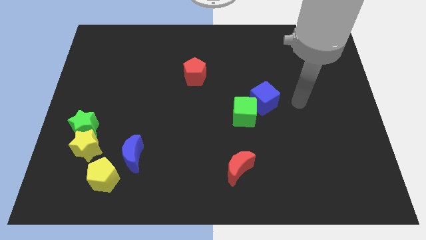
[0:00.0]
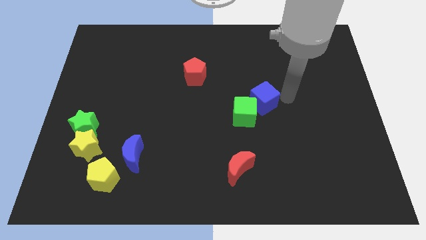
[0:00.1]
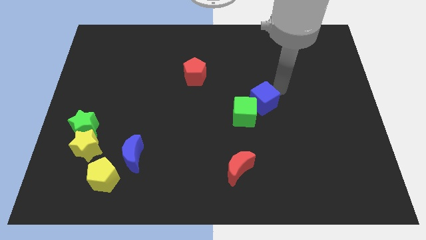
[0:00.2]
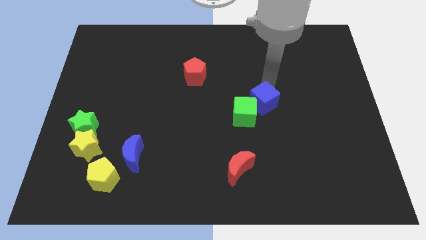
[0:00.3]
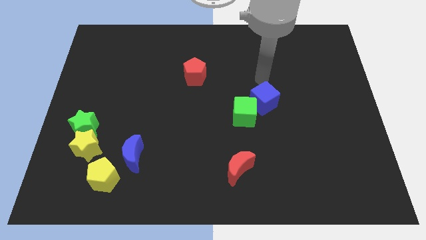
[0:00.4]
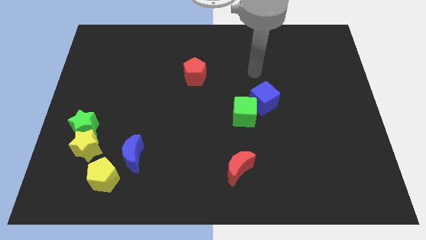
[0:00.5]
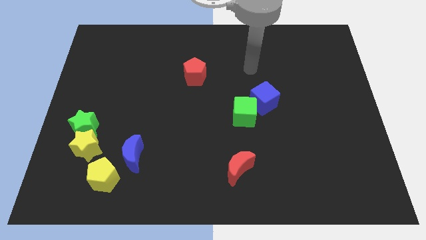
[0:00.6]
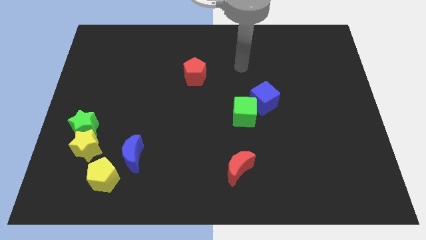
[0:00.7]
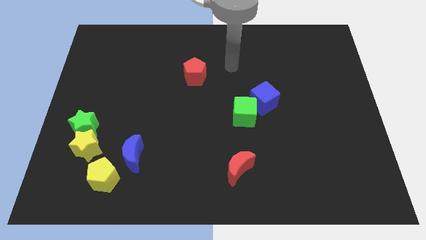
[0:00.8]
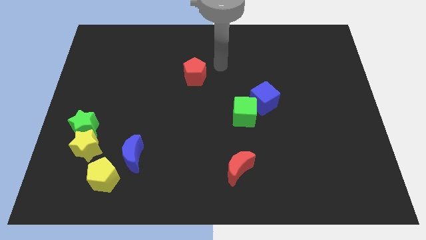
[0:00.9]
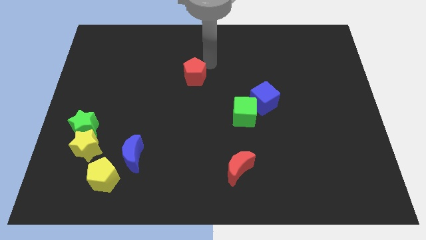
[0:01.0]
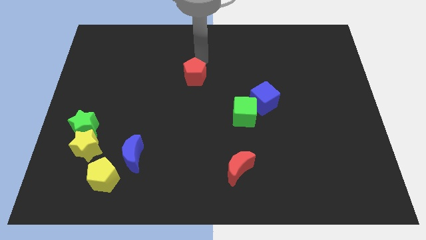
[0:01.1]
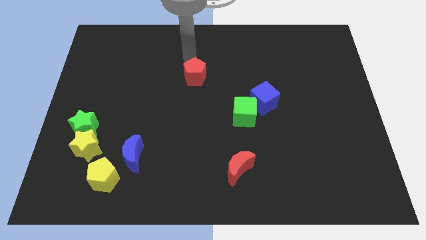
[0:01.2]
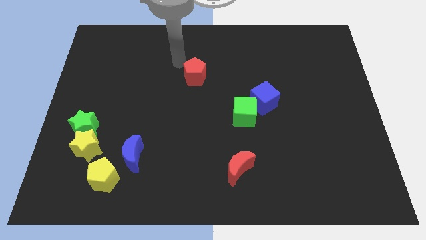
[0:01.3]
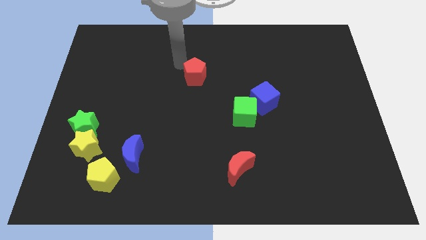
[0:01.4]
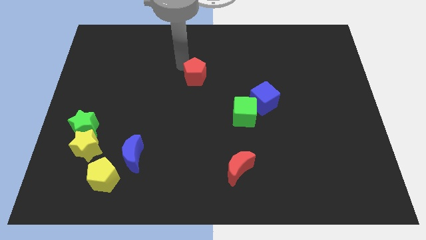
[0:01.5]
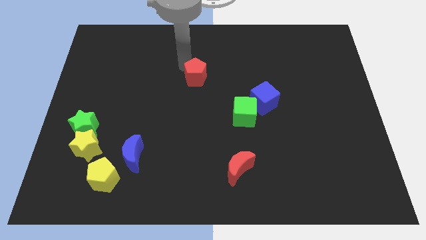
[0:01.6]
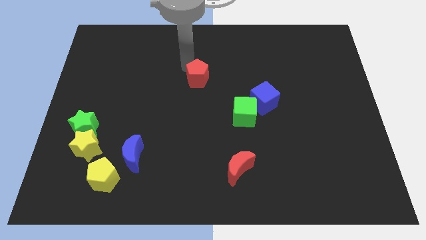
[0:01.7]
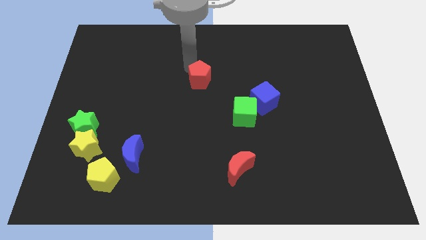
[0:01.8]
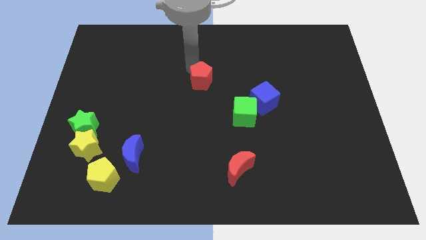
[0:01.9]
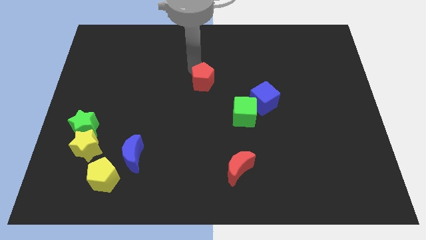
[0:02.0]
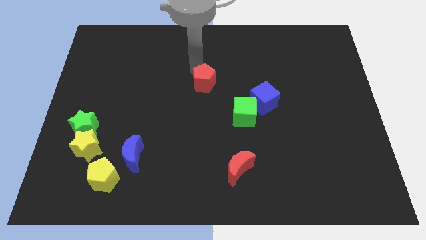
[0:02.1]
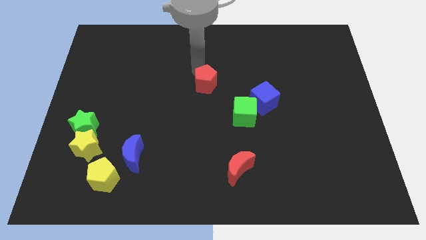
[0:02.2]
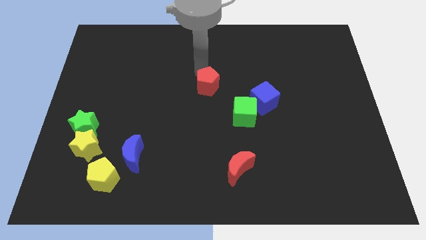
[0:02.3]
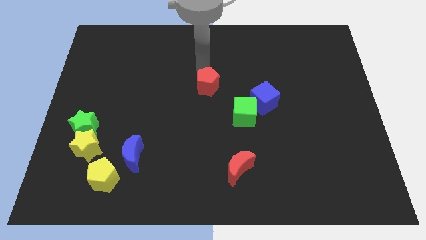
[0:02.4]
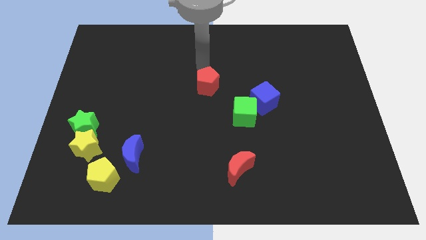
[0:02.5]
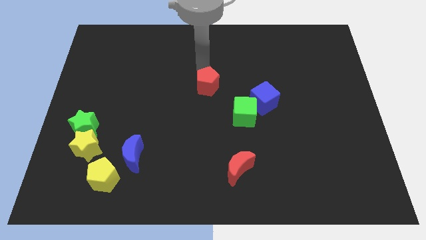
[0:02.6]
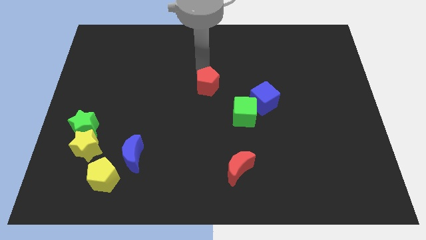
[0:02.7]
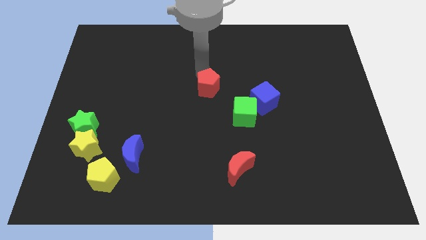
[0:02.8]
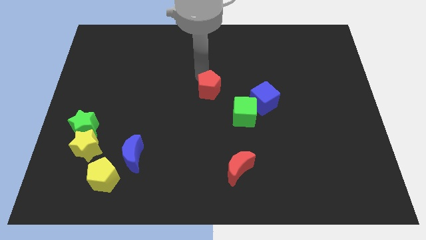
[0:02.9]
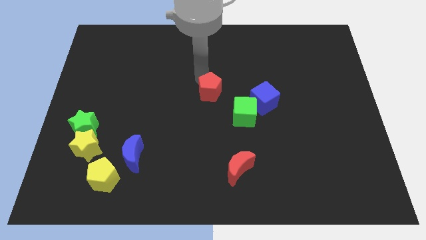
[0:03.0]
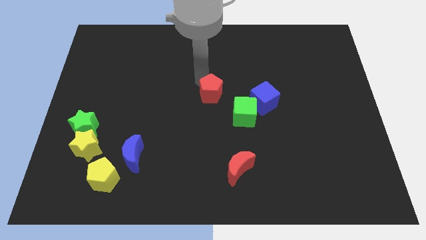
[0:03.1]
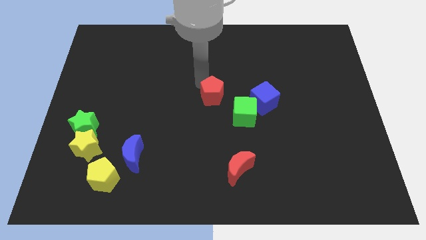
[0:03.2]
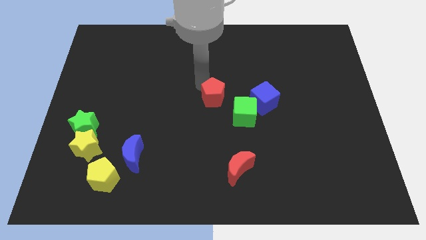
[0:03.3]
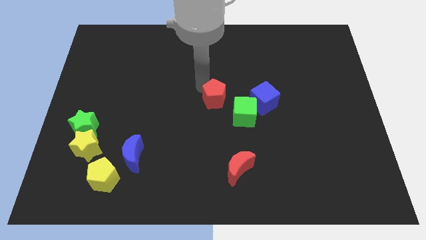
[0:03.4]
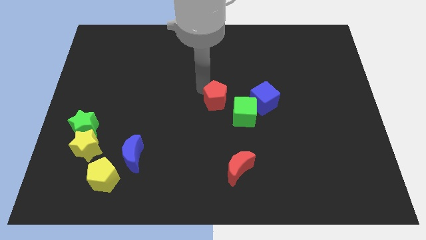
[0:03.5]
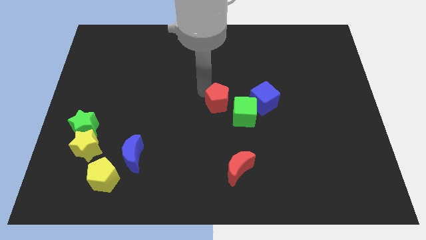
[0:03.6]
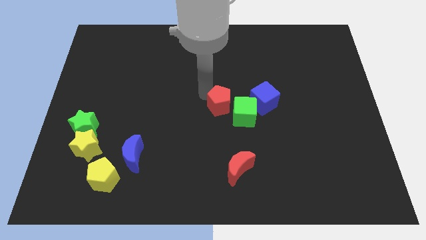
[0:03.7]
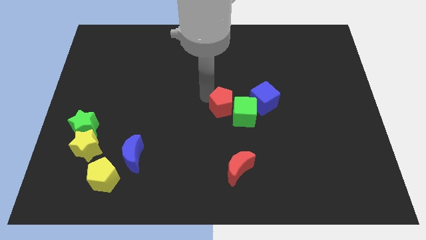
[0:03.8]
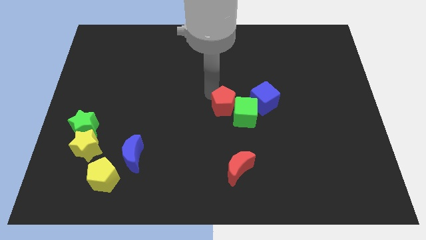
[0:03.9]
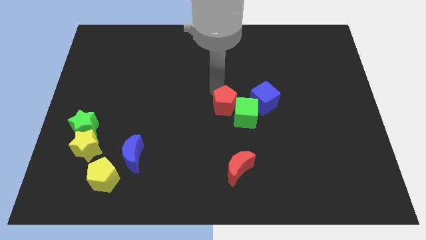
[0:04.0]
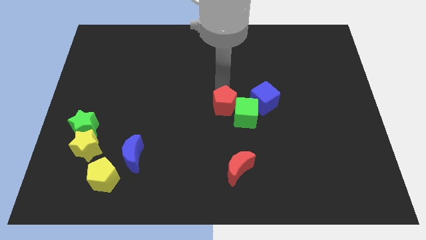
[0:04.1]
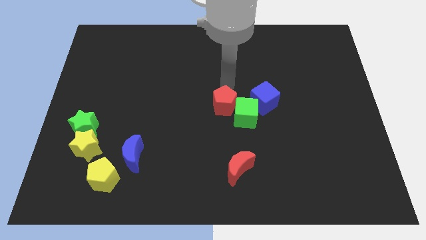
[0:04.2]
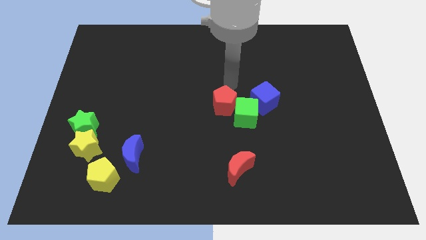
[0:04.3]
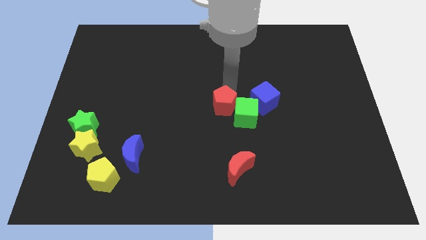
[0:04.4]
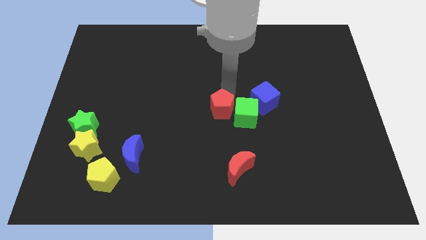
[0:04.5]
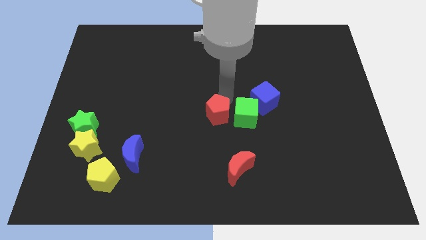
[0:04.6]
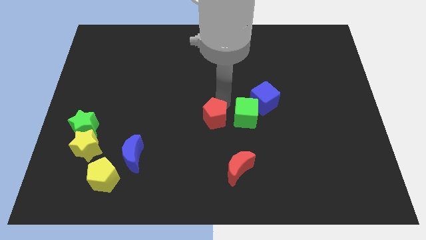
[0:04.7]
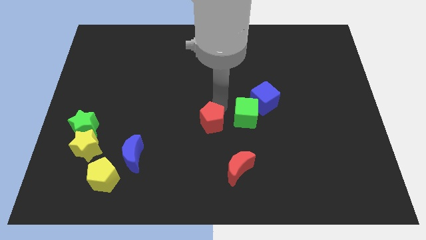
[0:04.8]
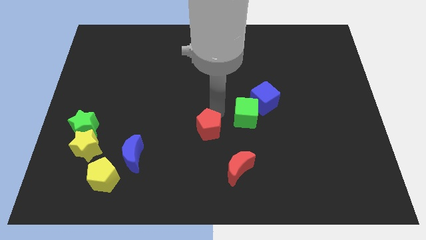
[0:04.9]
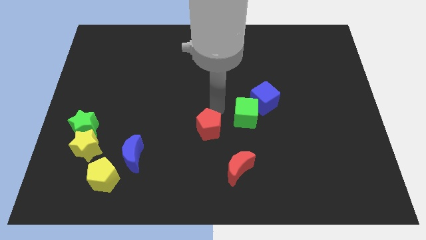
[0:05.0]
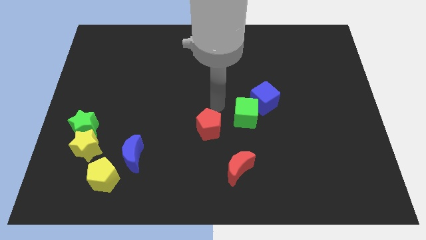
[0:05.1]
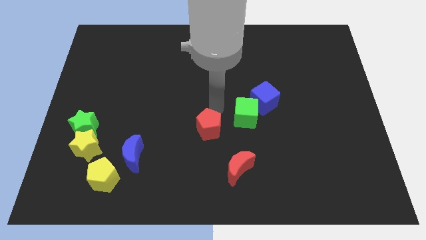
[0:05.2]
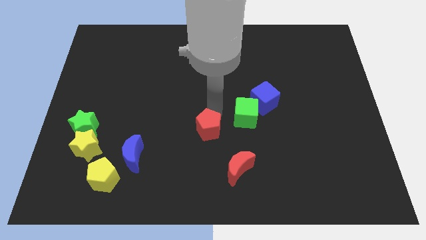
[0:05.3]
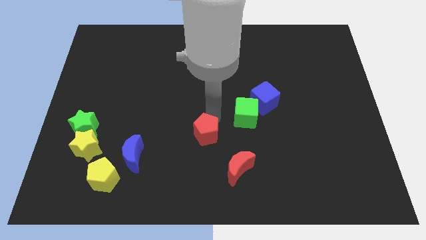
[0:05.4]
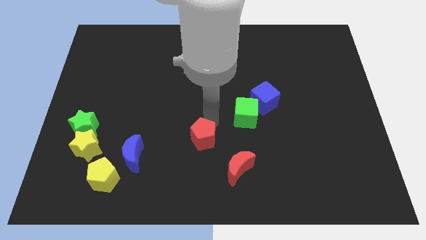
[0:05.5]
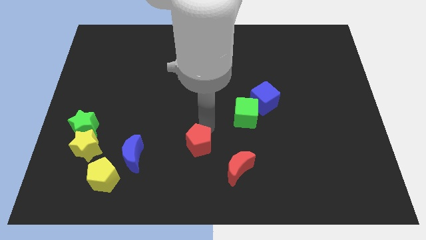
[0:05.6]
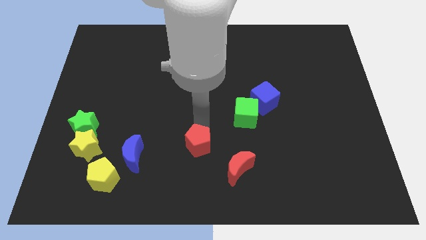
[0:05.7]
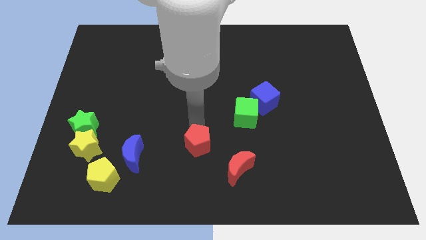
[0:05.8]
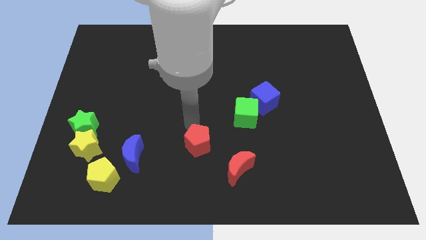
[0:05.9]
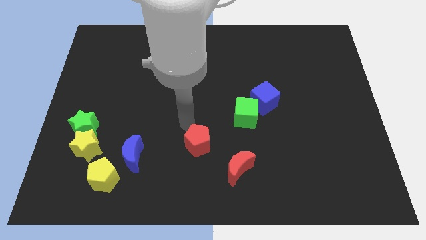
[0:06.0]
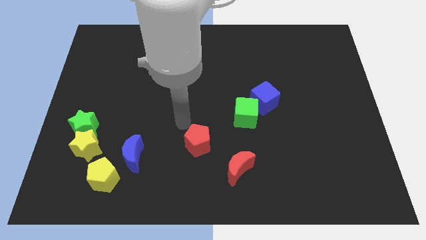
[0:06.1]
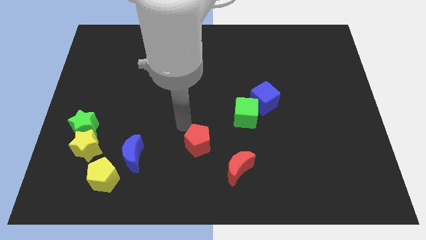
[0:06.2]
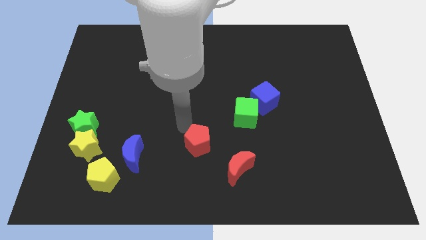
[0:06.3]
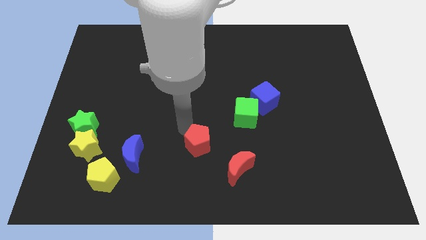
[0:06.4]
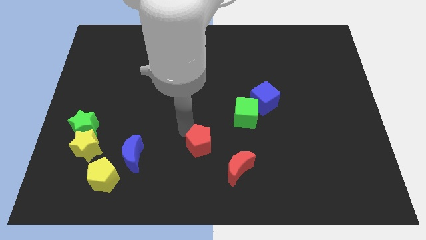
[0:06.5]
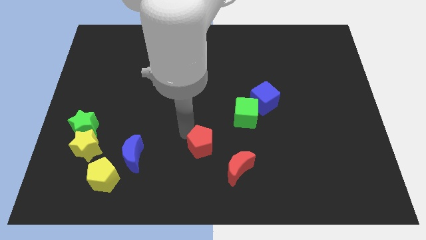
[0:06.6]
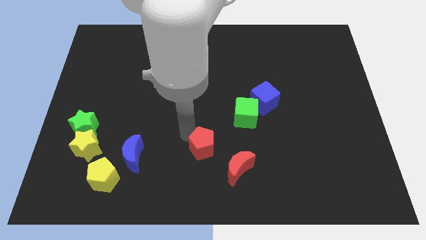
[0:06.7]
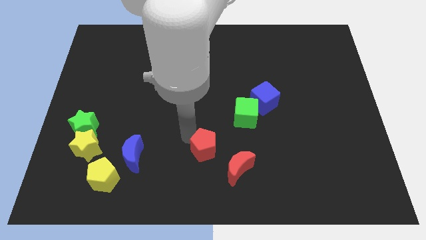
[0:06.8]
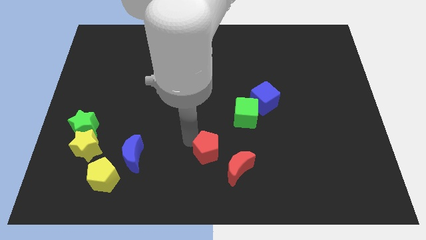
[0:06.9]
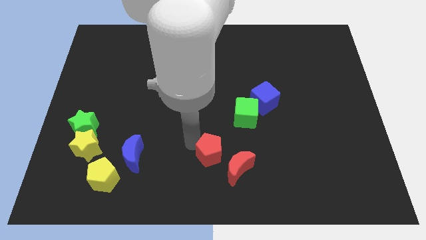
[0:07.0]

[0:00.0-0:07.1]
put the red pentagon to the bottom
